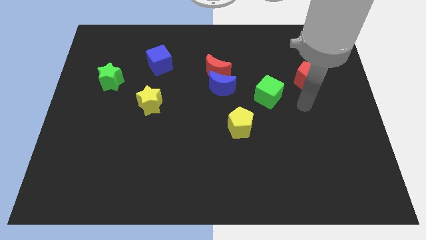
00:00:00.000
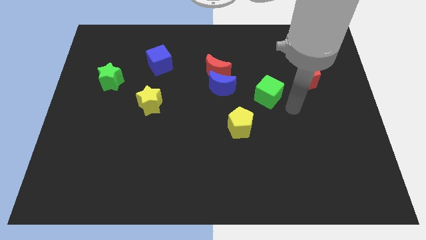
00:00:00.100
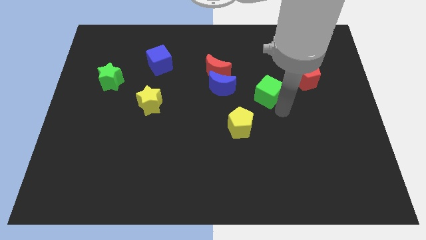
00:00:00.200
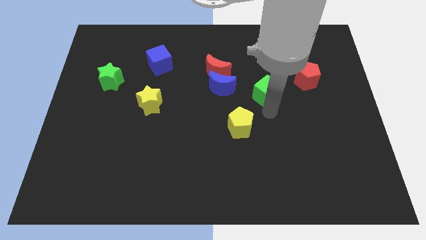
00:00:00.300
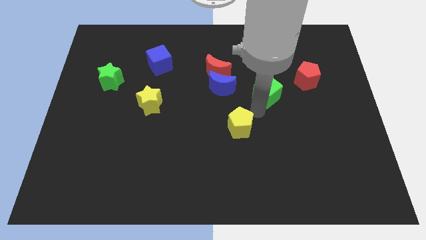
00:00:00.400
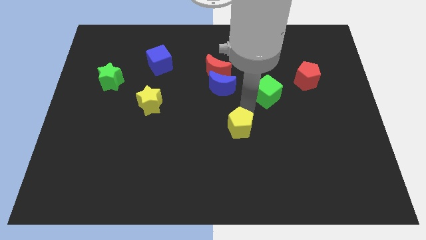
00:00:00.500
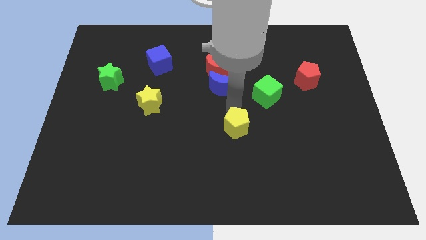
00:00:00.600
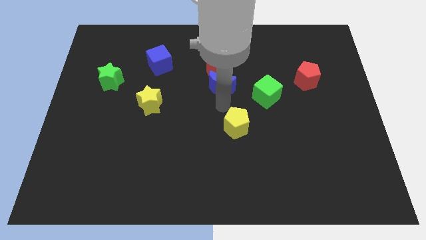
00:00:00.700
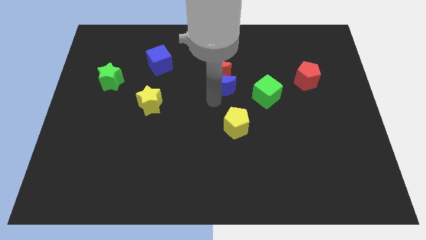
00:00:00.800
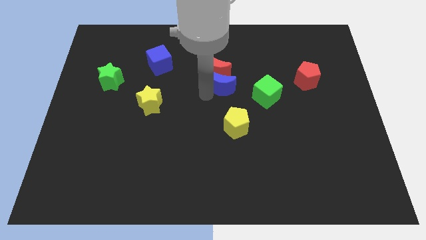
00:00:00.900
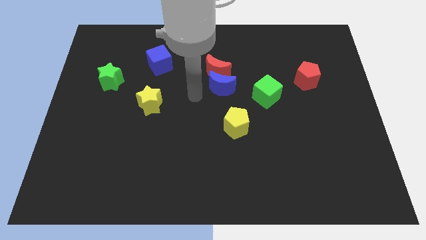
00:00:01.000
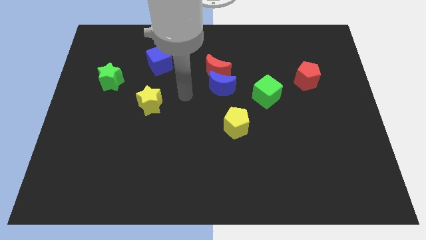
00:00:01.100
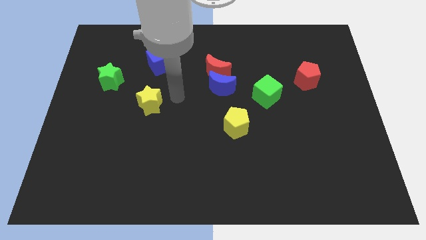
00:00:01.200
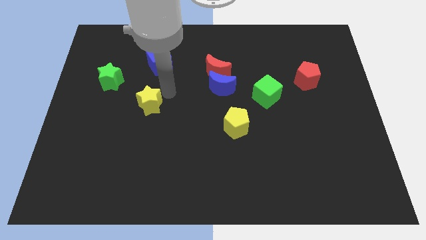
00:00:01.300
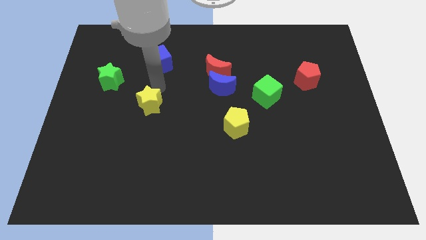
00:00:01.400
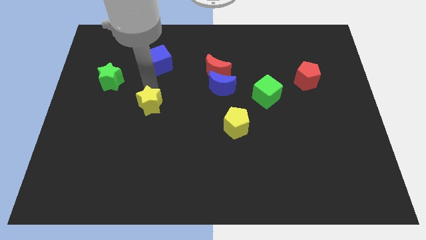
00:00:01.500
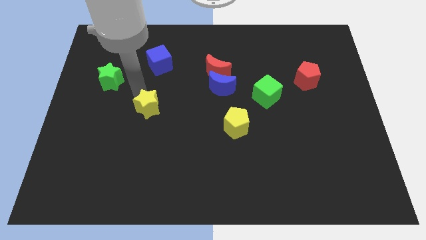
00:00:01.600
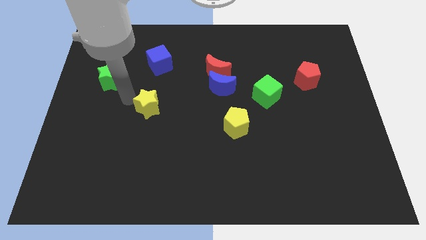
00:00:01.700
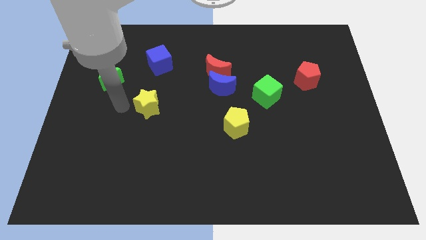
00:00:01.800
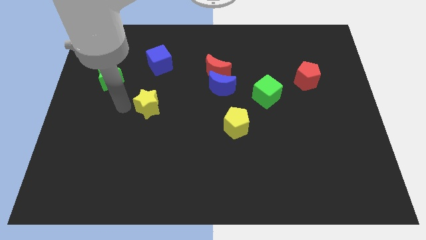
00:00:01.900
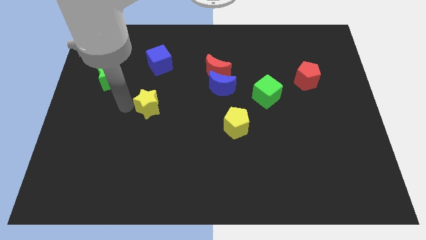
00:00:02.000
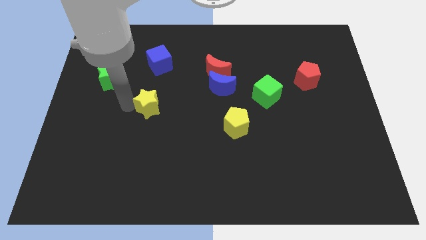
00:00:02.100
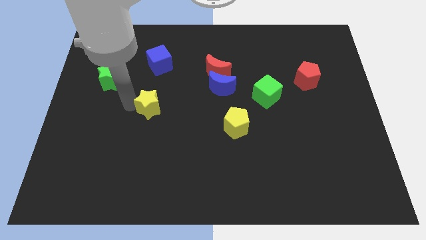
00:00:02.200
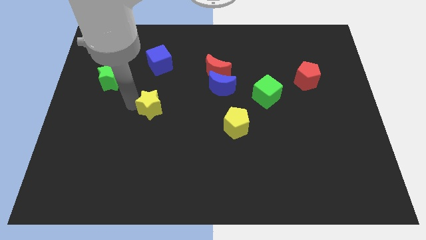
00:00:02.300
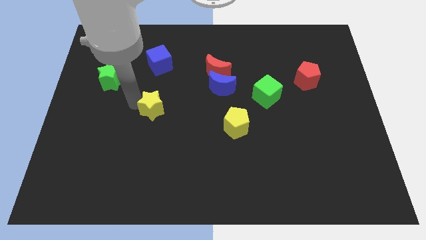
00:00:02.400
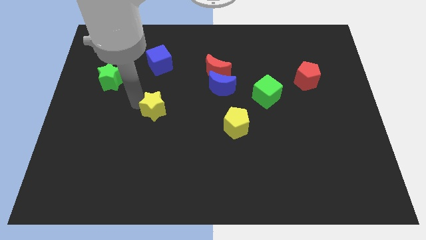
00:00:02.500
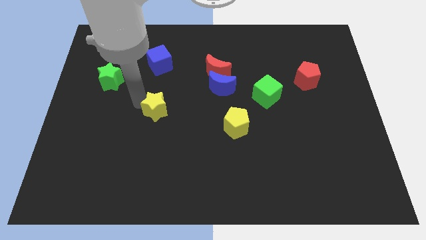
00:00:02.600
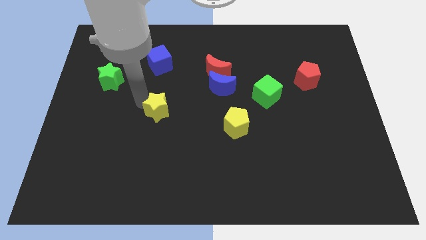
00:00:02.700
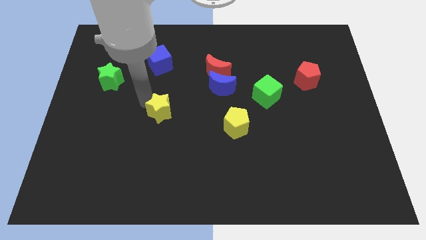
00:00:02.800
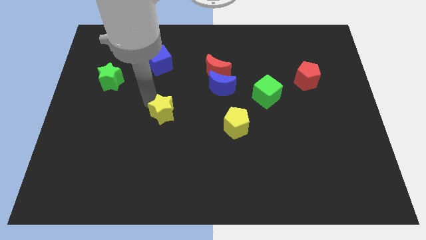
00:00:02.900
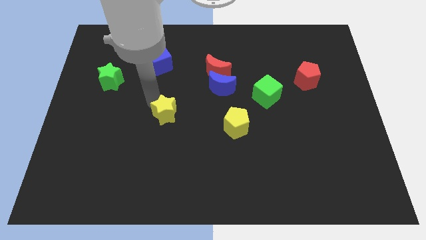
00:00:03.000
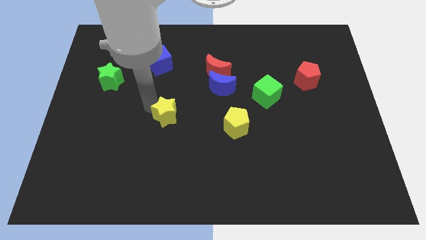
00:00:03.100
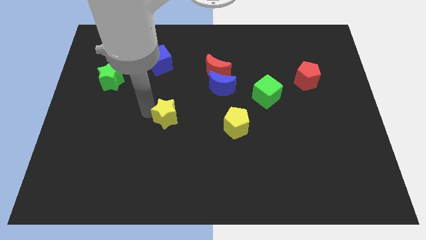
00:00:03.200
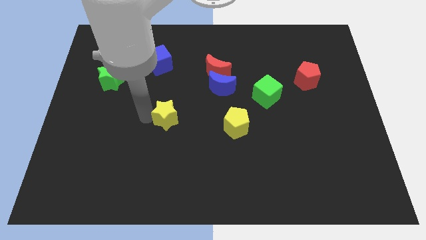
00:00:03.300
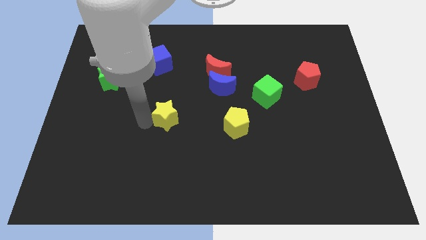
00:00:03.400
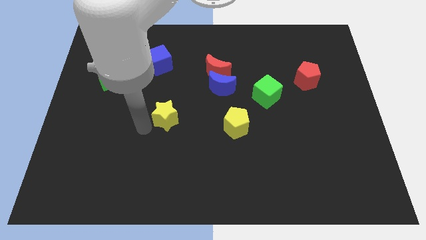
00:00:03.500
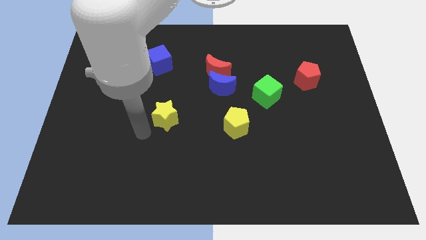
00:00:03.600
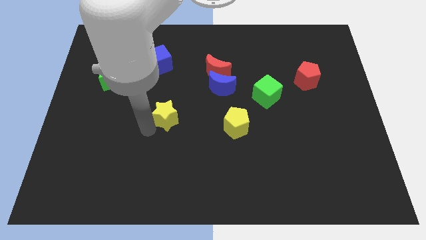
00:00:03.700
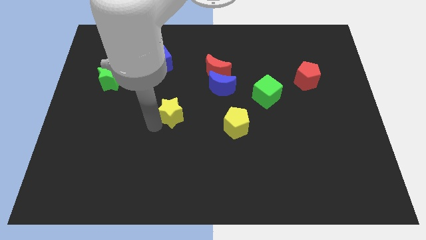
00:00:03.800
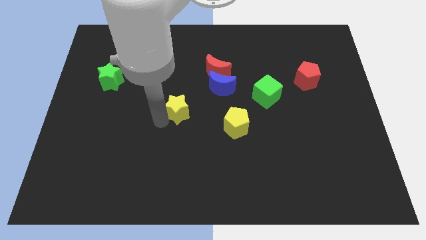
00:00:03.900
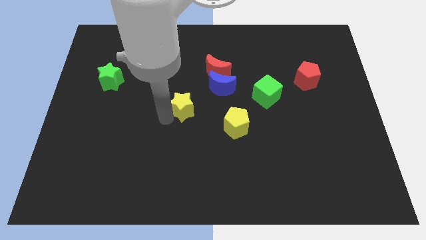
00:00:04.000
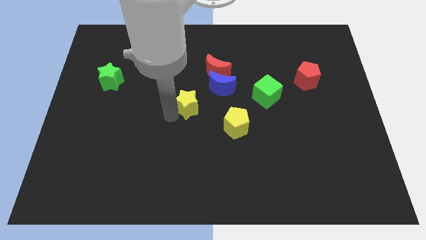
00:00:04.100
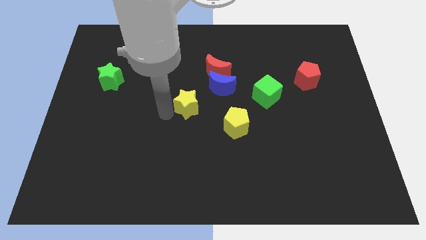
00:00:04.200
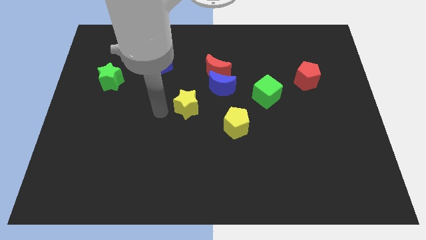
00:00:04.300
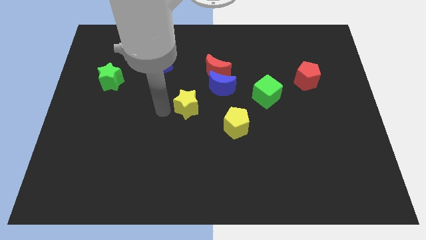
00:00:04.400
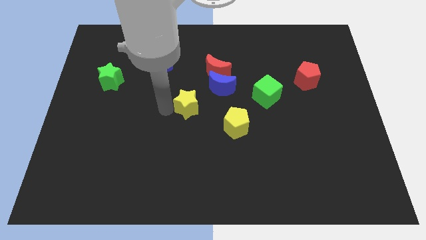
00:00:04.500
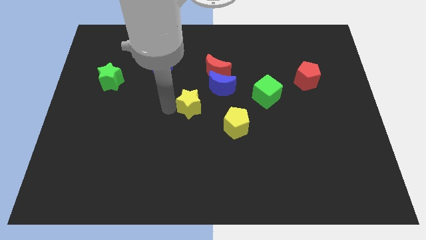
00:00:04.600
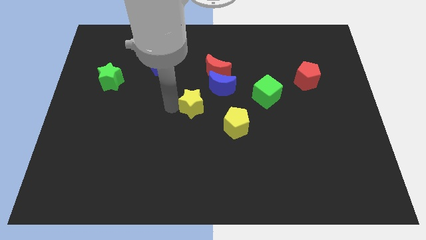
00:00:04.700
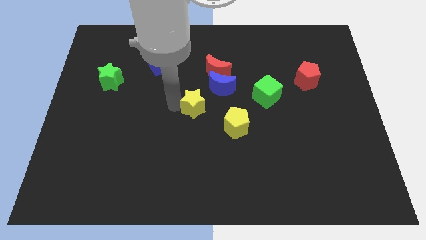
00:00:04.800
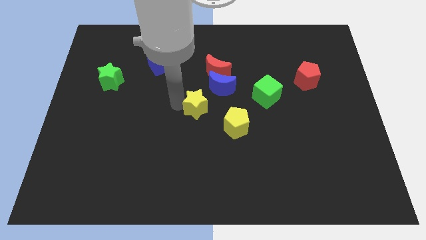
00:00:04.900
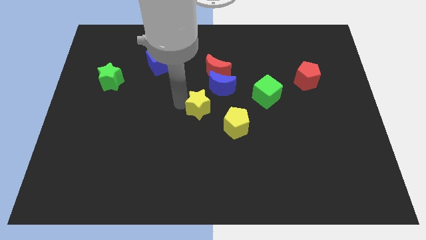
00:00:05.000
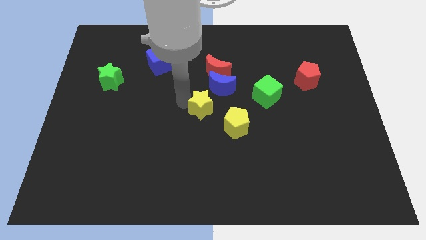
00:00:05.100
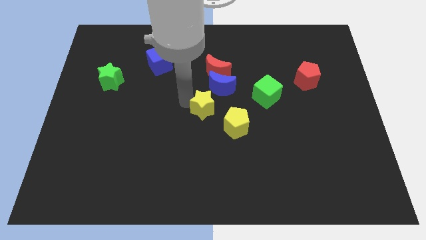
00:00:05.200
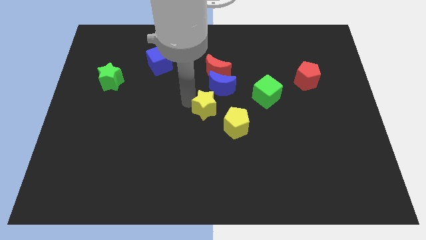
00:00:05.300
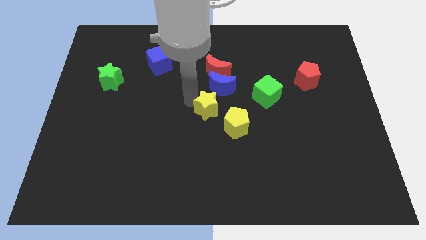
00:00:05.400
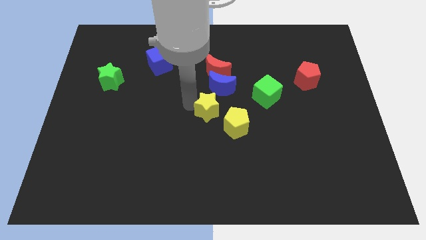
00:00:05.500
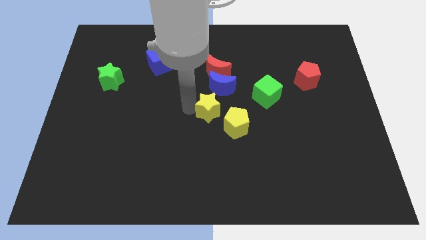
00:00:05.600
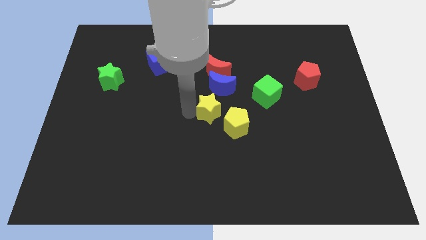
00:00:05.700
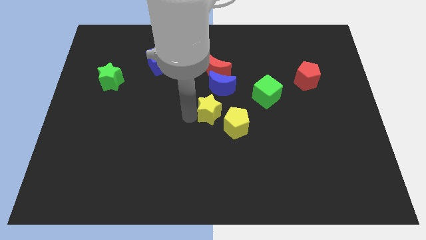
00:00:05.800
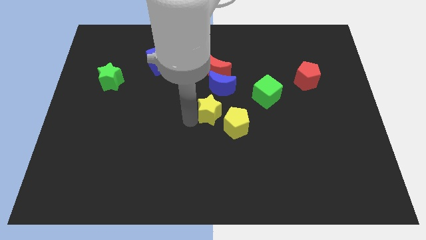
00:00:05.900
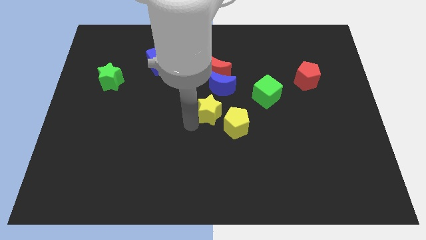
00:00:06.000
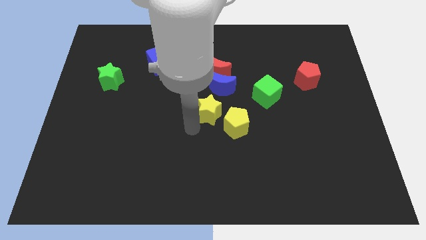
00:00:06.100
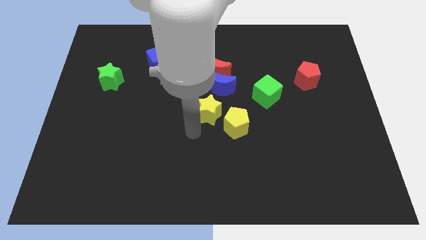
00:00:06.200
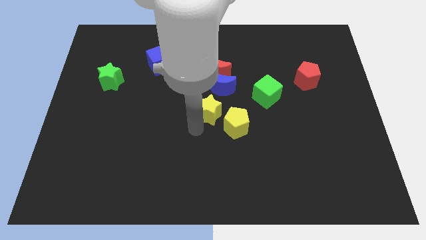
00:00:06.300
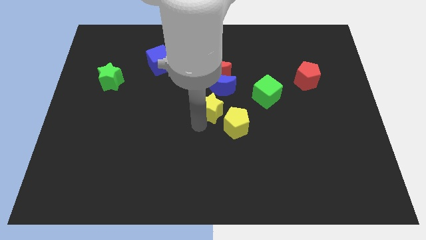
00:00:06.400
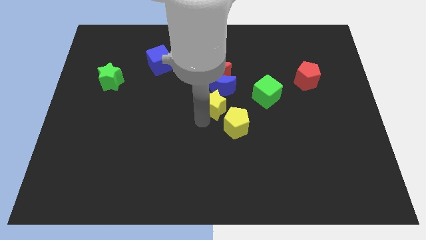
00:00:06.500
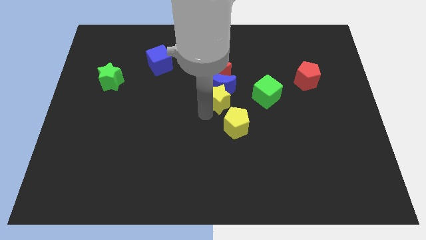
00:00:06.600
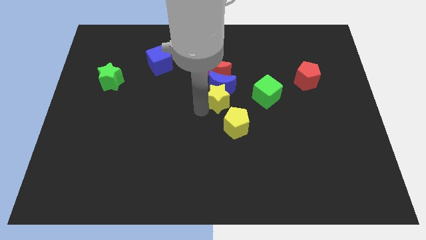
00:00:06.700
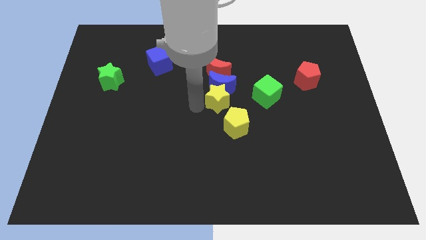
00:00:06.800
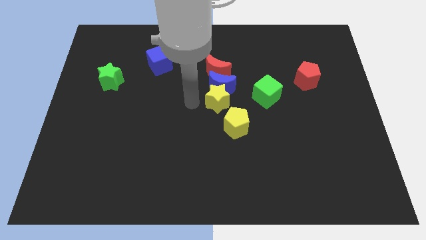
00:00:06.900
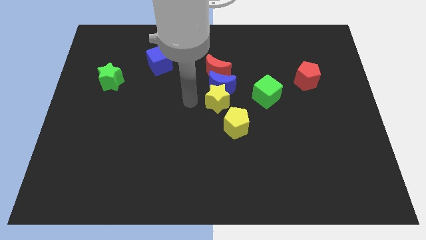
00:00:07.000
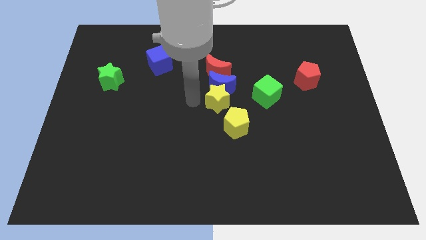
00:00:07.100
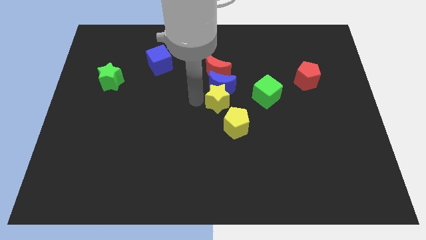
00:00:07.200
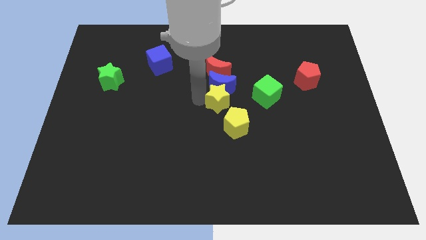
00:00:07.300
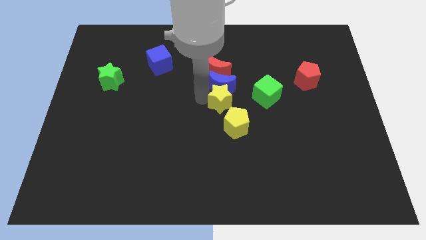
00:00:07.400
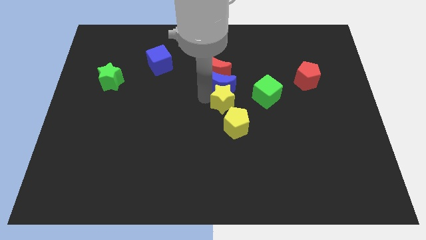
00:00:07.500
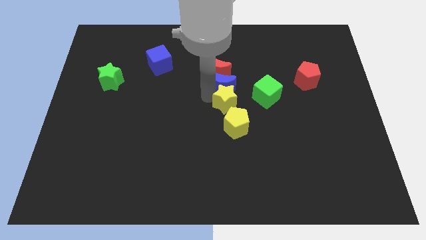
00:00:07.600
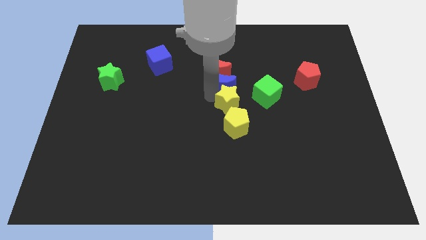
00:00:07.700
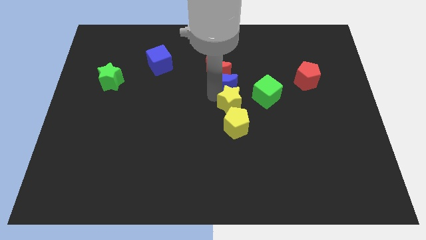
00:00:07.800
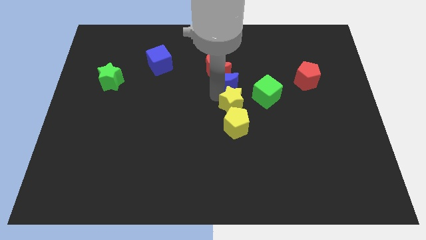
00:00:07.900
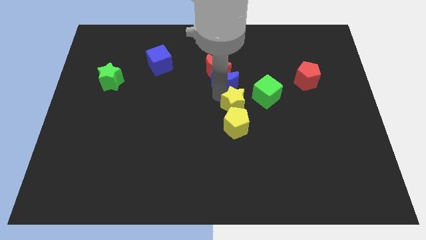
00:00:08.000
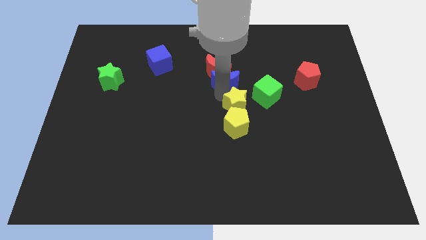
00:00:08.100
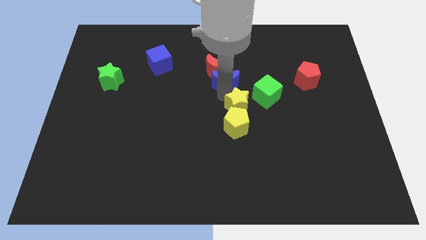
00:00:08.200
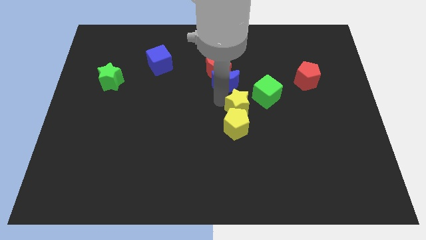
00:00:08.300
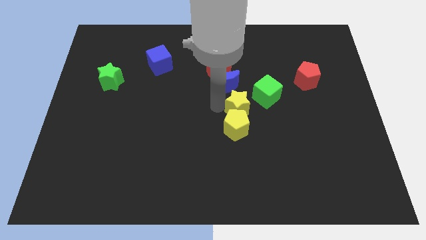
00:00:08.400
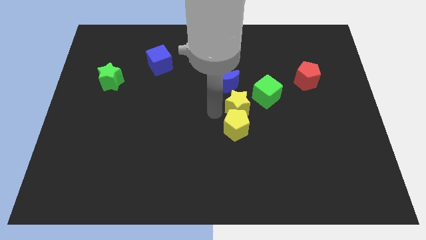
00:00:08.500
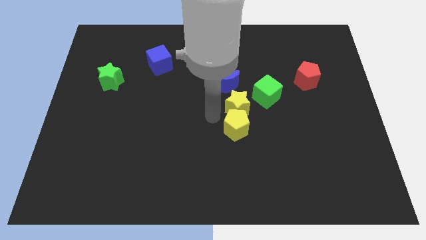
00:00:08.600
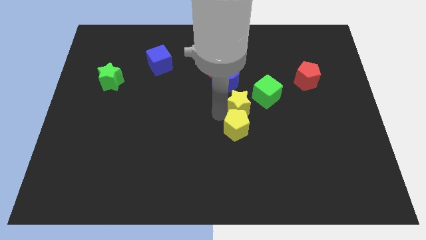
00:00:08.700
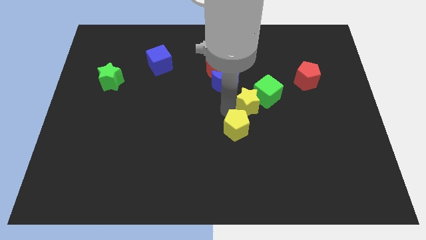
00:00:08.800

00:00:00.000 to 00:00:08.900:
put the yellow star to the green cube
